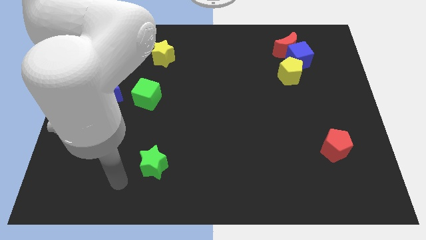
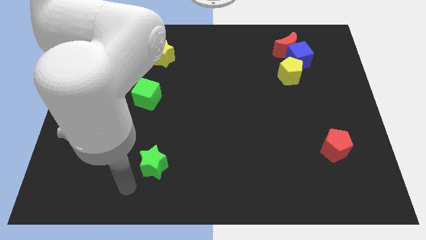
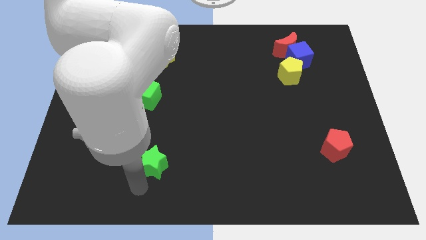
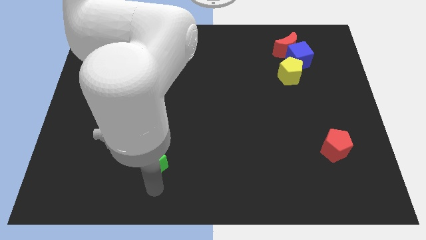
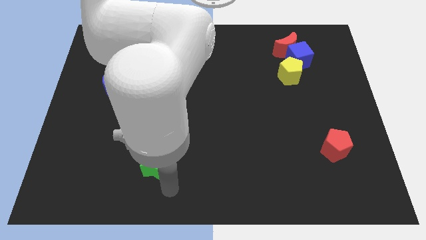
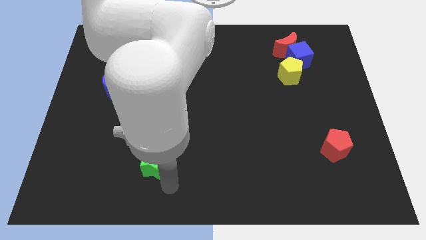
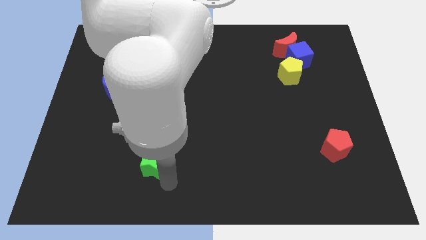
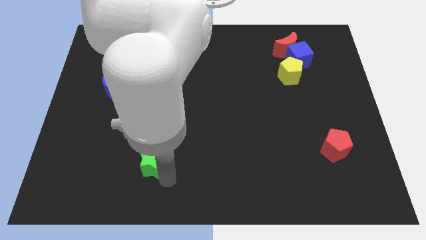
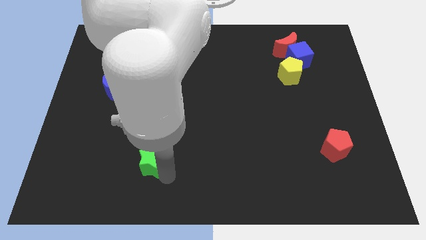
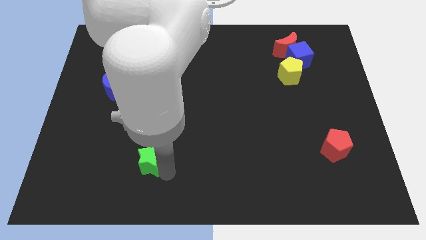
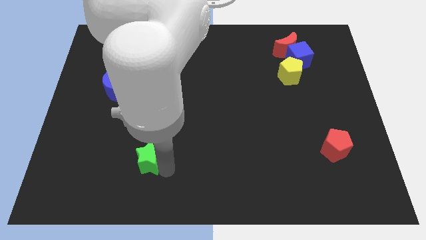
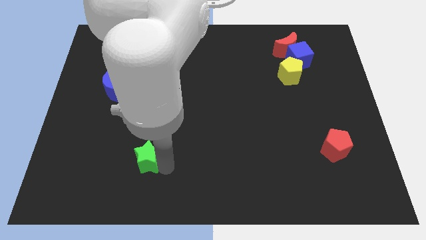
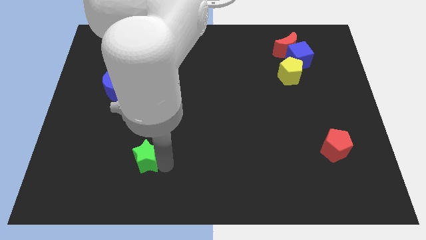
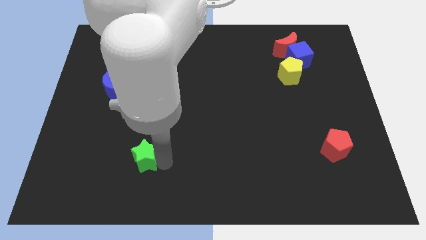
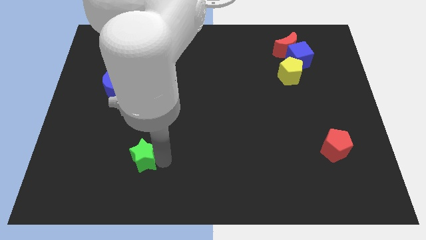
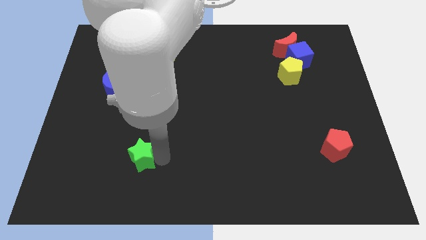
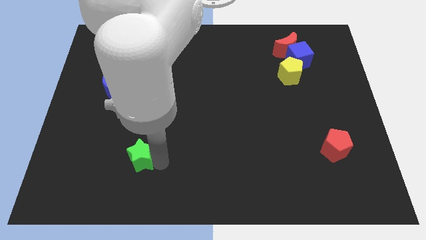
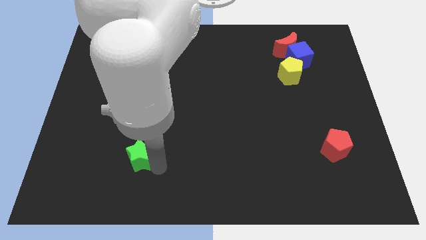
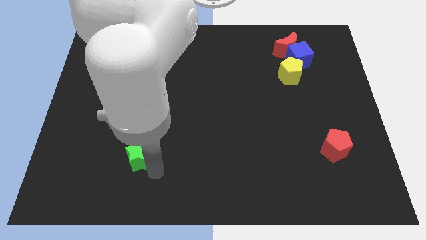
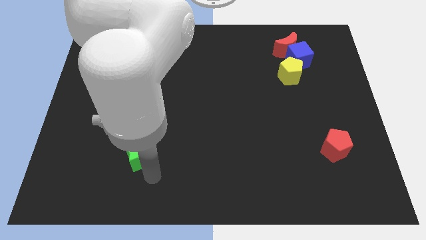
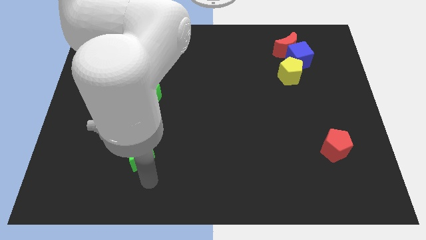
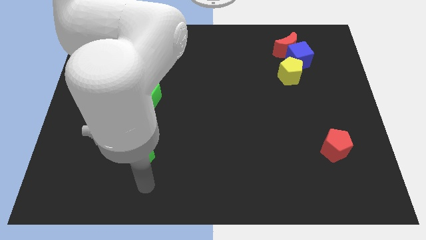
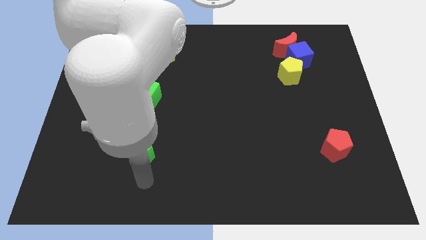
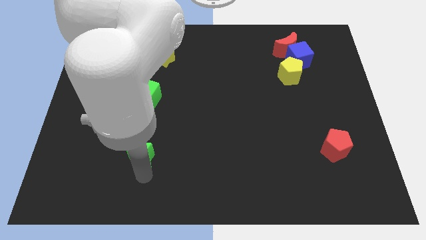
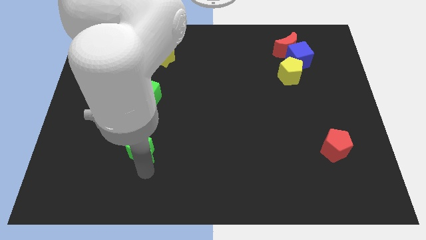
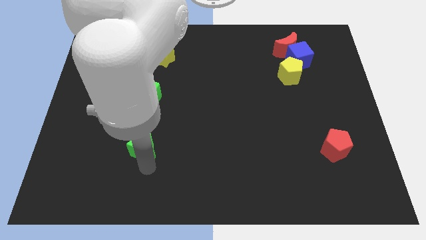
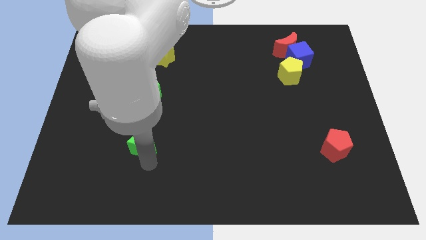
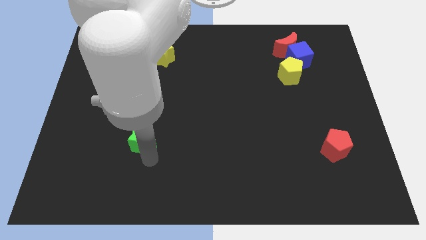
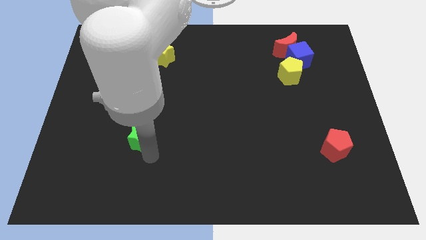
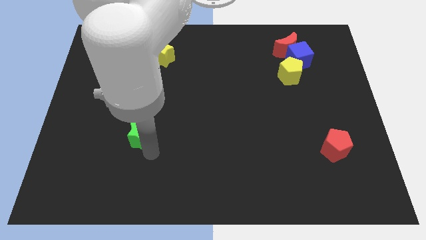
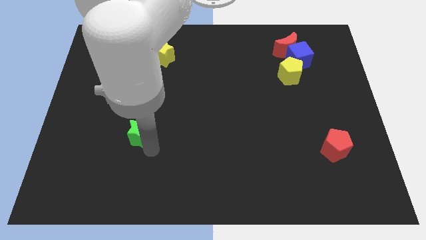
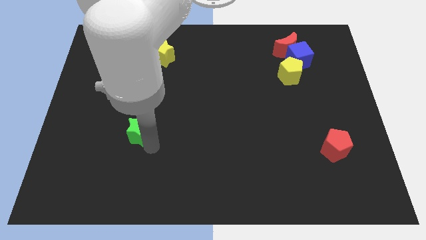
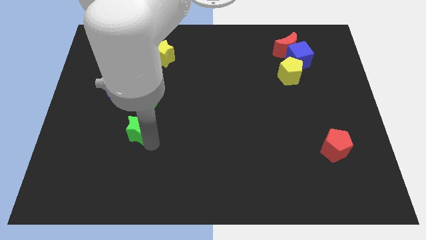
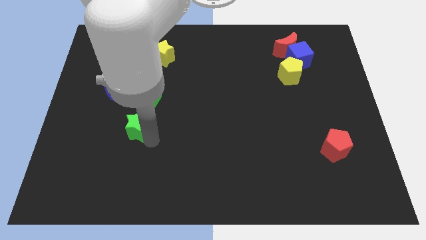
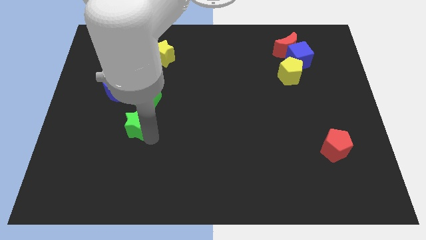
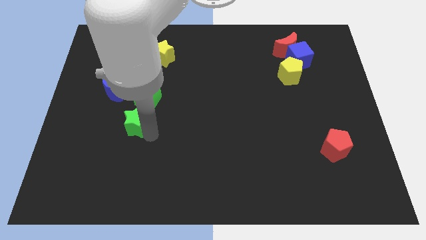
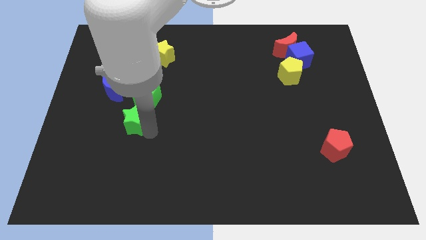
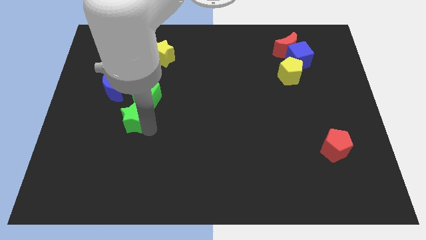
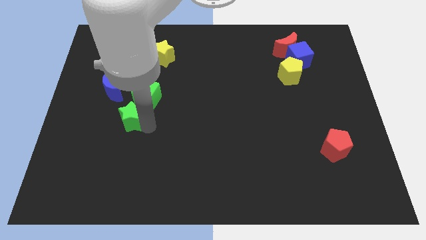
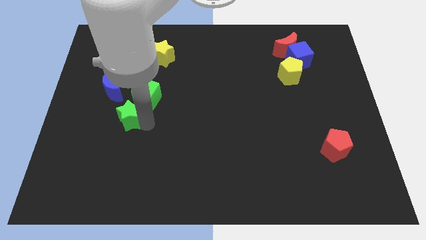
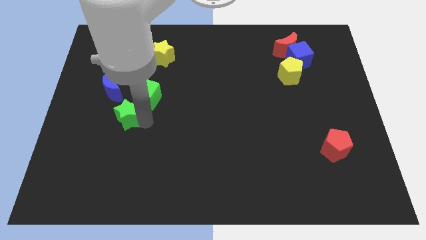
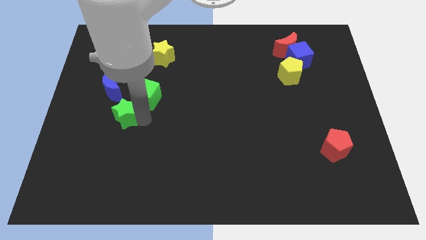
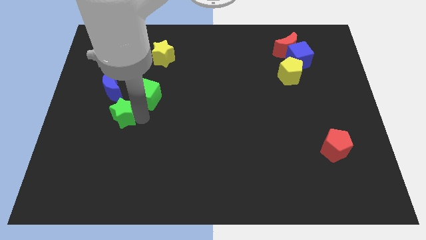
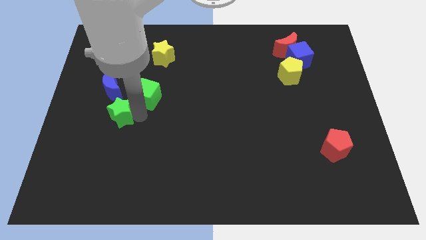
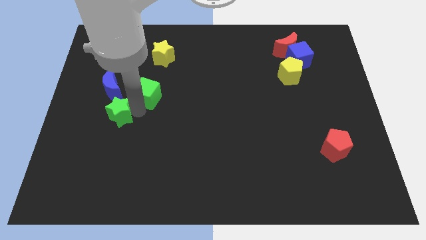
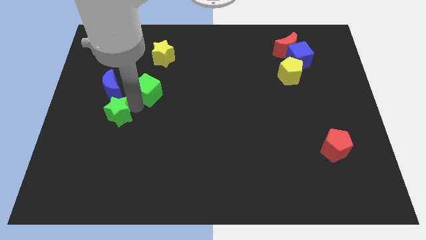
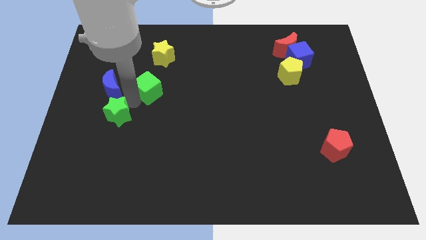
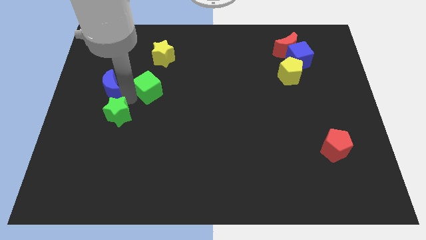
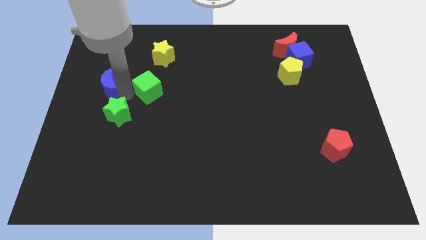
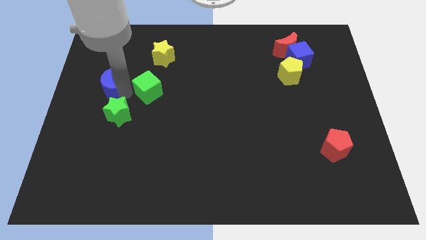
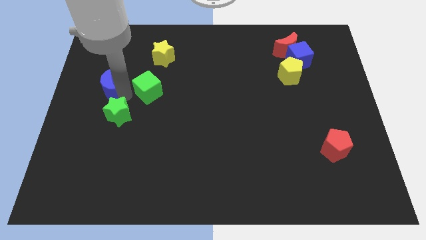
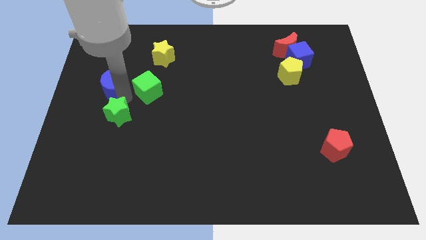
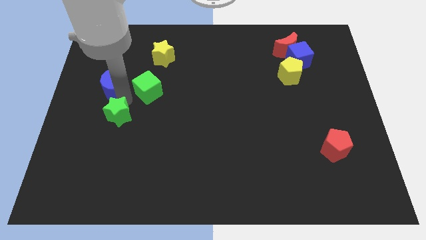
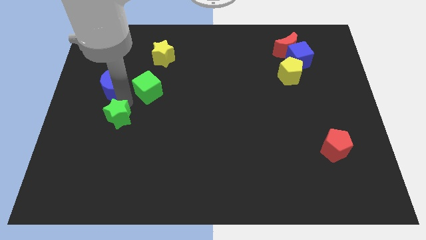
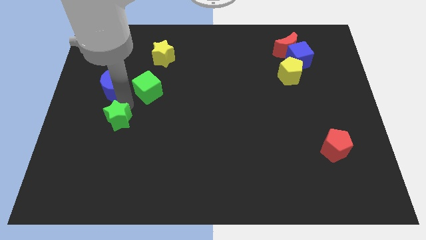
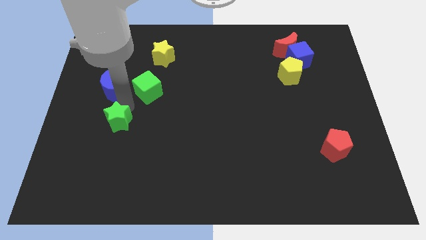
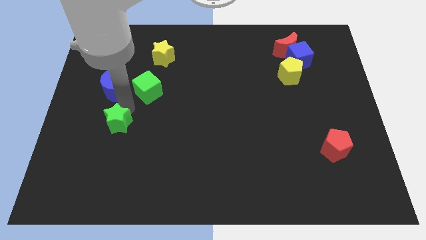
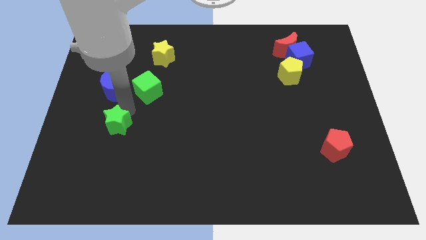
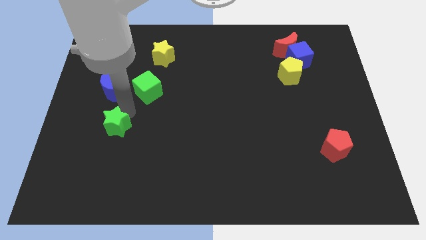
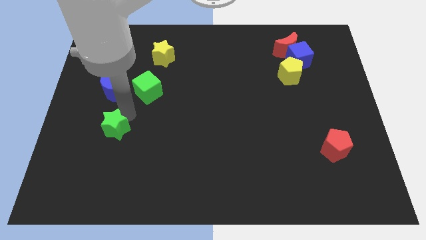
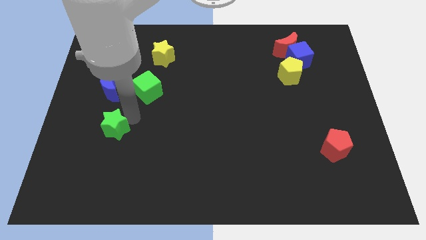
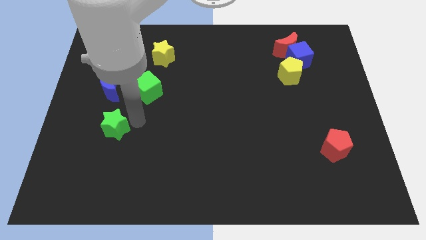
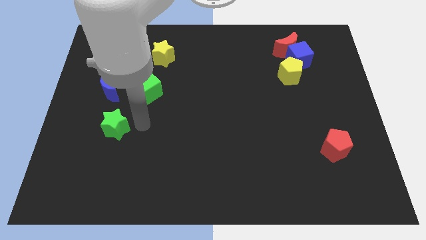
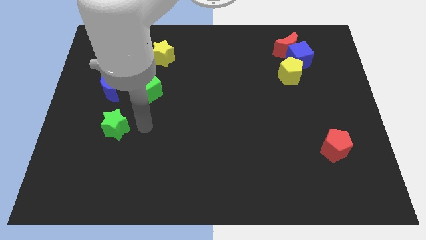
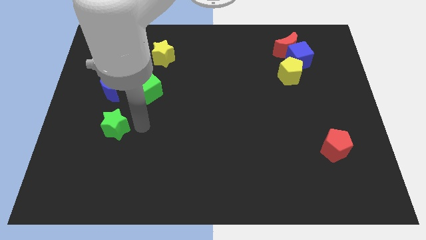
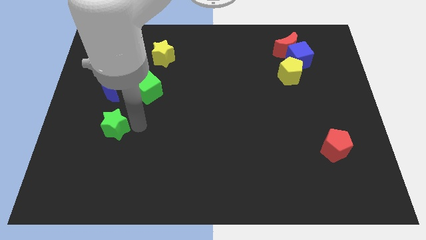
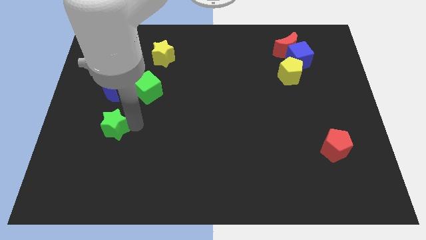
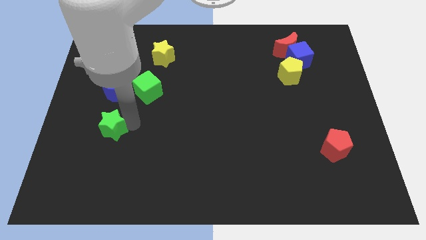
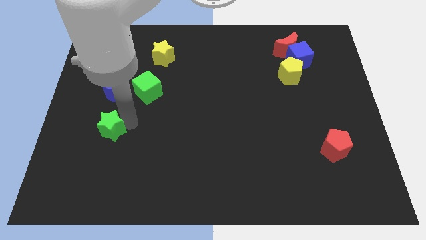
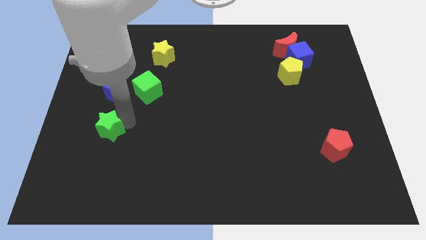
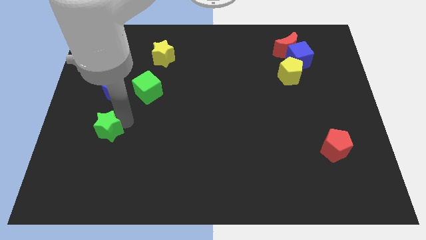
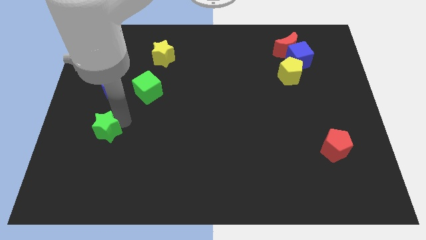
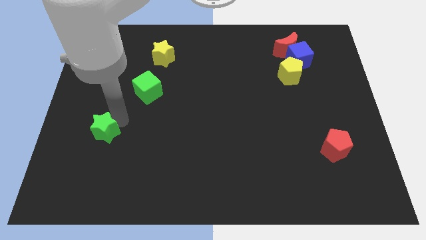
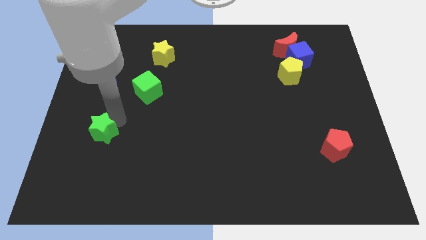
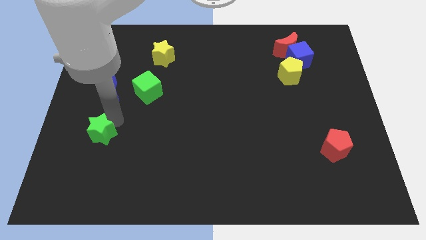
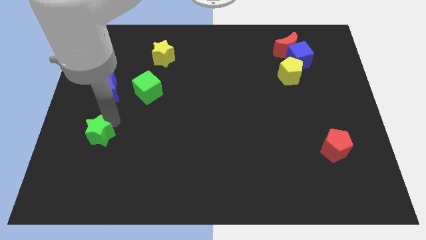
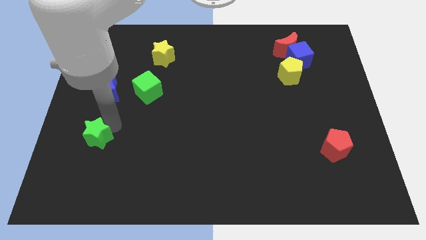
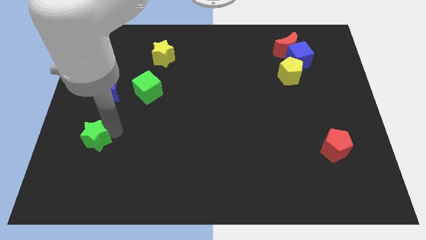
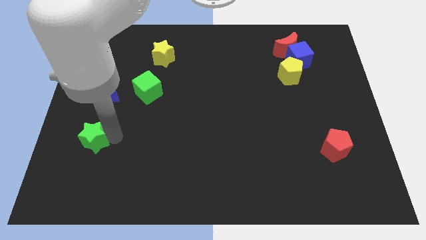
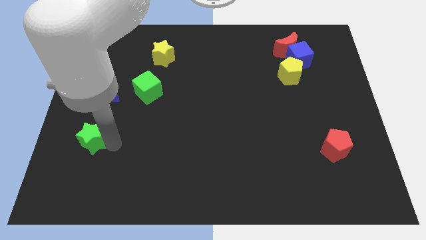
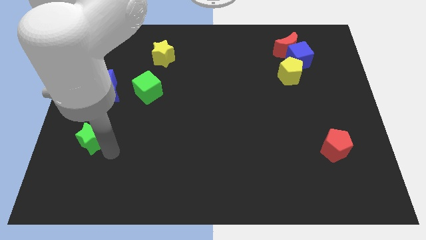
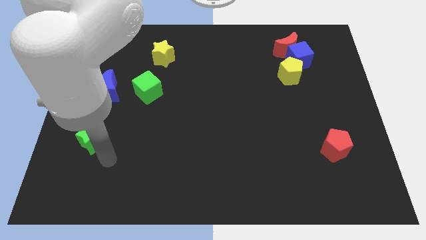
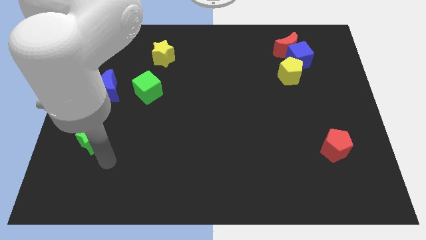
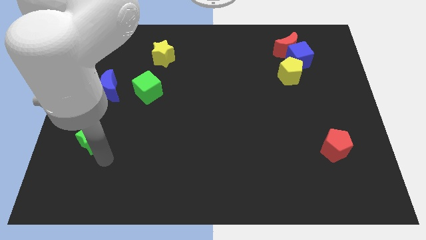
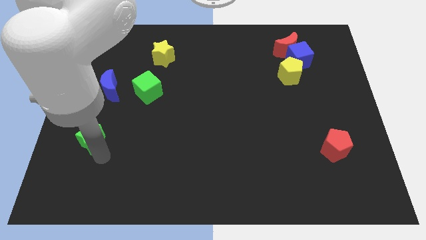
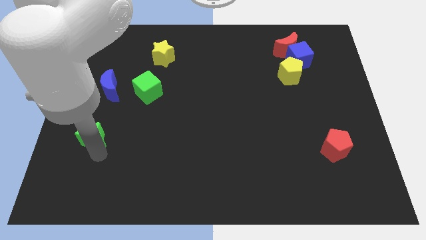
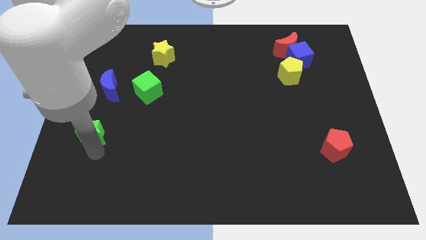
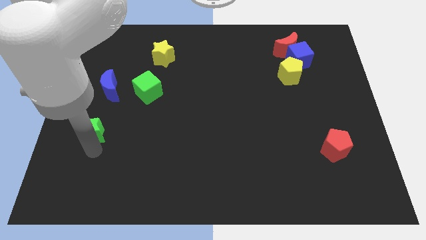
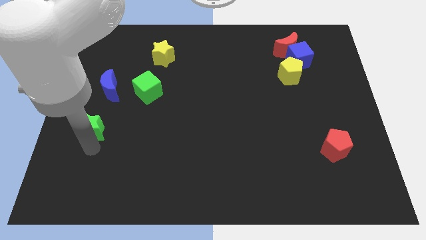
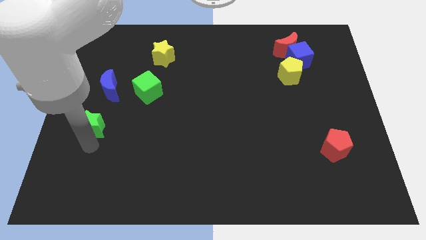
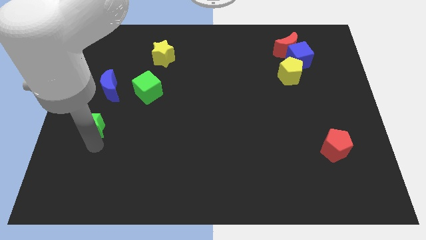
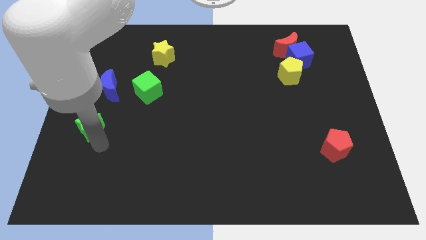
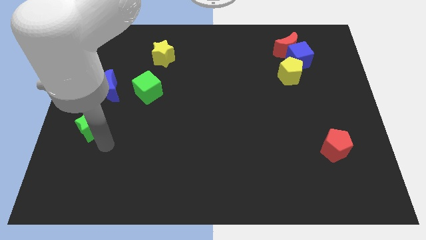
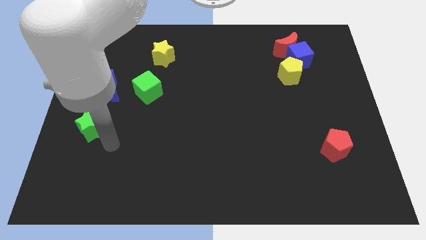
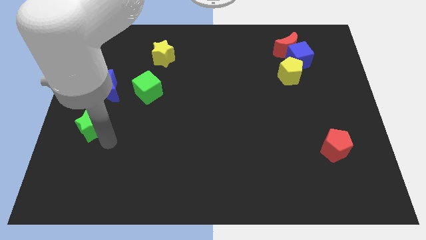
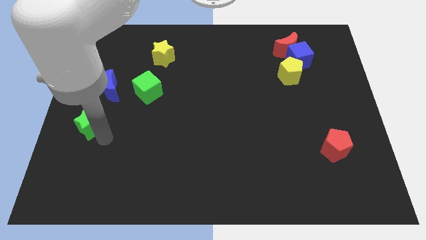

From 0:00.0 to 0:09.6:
put the green star to the left side of the board
